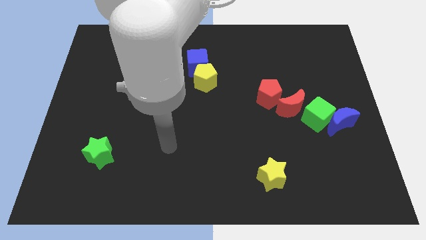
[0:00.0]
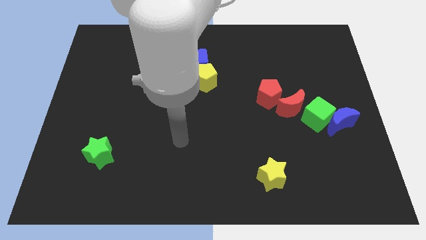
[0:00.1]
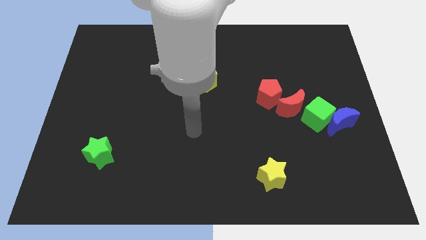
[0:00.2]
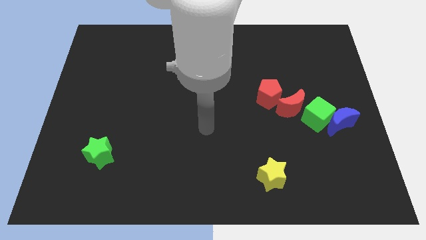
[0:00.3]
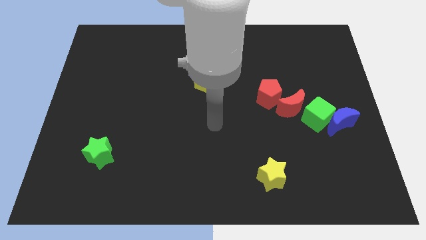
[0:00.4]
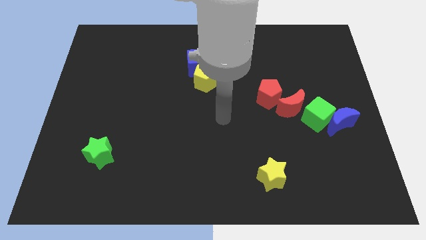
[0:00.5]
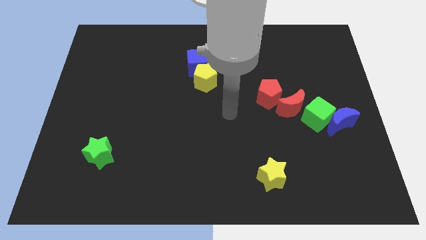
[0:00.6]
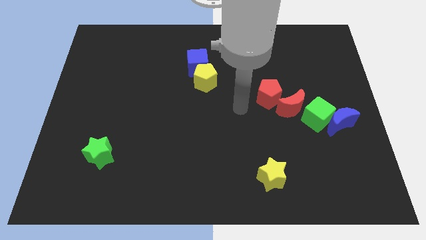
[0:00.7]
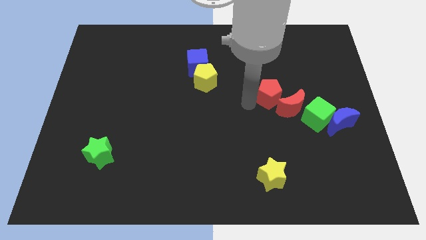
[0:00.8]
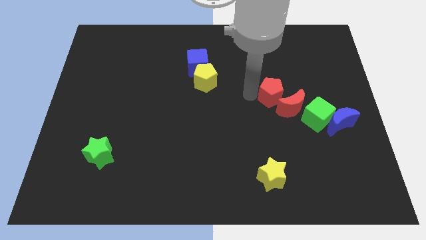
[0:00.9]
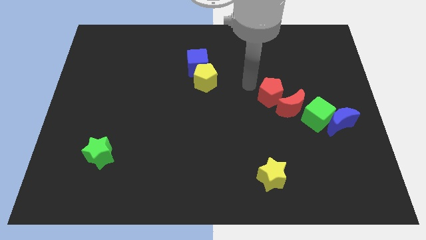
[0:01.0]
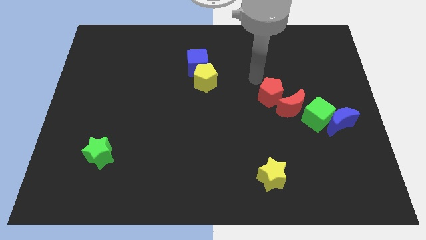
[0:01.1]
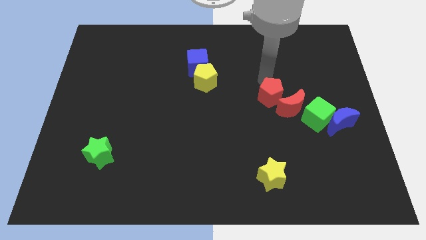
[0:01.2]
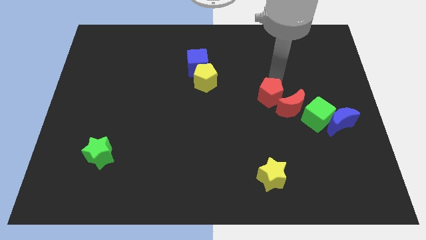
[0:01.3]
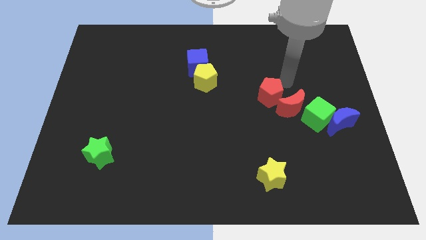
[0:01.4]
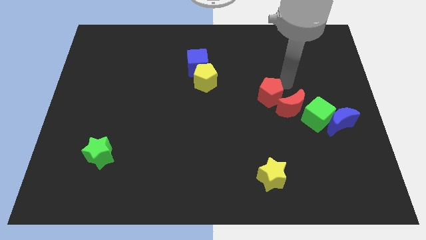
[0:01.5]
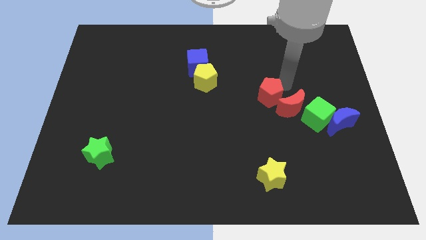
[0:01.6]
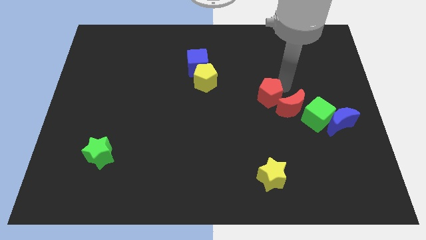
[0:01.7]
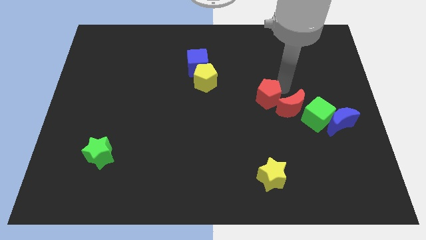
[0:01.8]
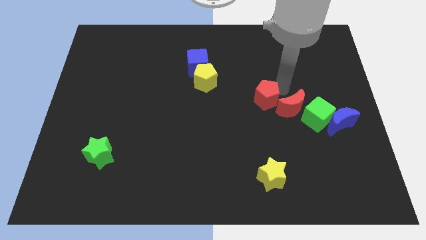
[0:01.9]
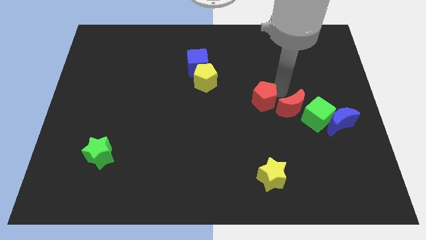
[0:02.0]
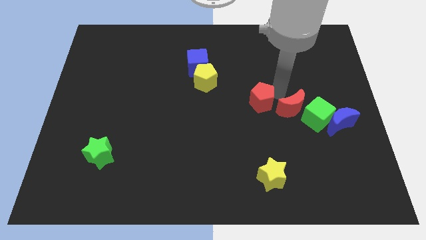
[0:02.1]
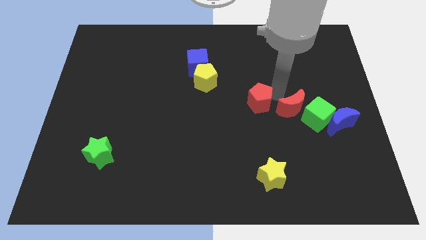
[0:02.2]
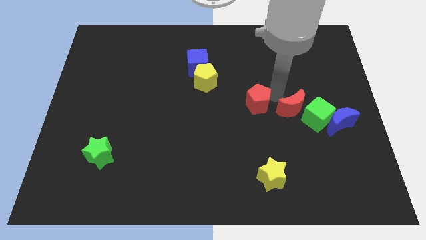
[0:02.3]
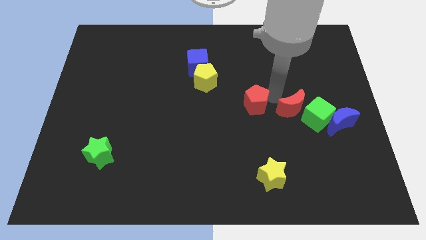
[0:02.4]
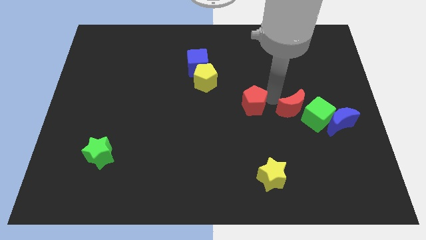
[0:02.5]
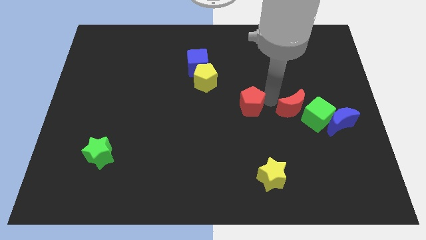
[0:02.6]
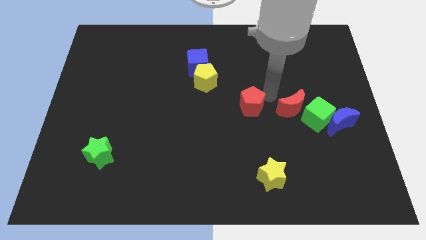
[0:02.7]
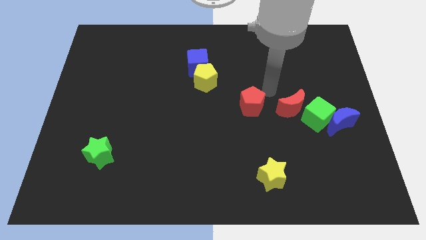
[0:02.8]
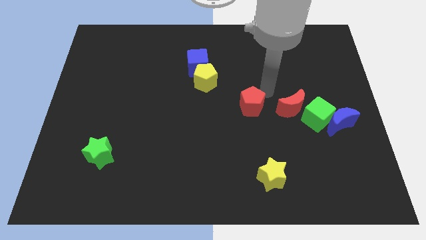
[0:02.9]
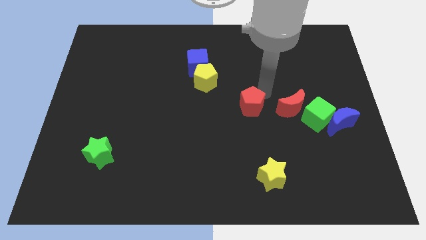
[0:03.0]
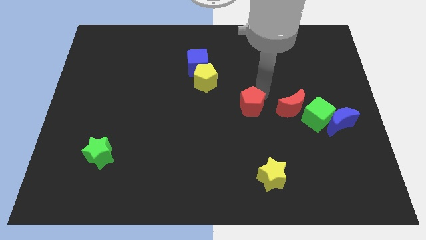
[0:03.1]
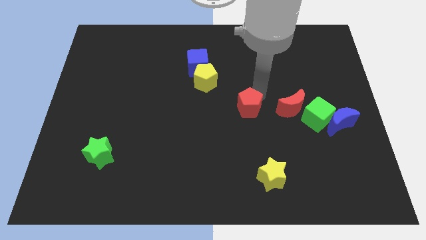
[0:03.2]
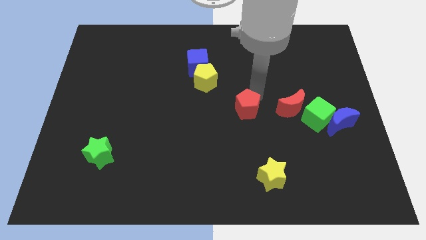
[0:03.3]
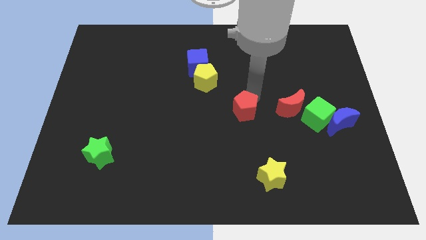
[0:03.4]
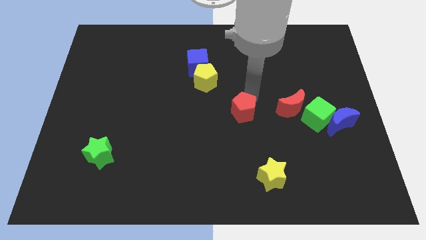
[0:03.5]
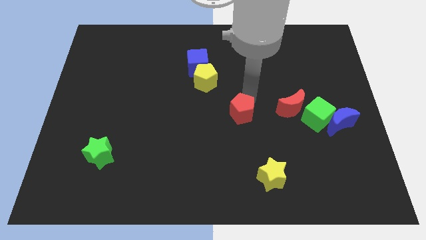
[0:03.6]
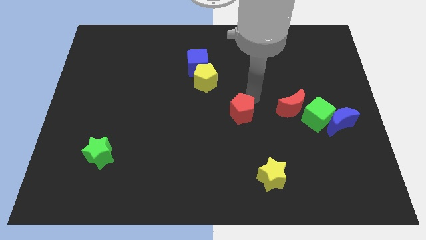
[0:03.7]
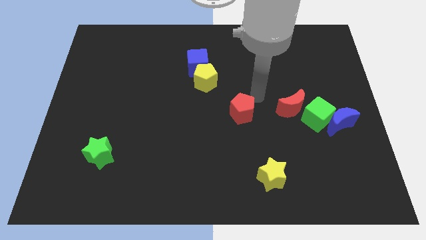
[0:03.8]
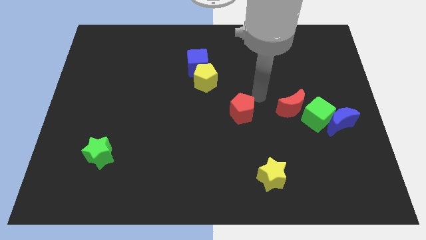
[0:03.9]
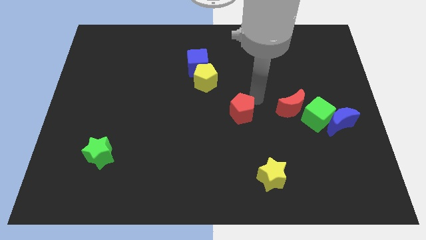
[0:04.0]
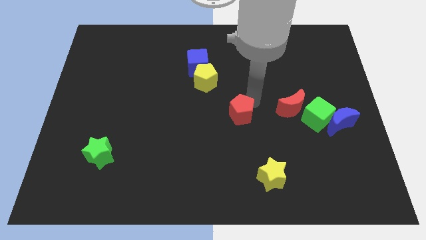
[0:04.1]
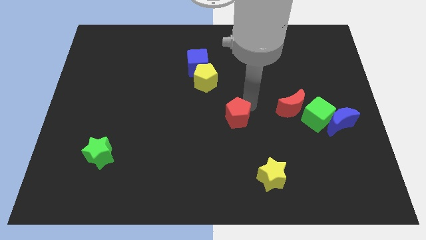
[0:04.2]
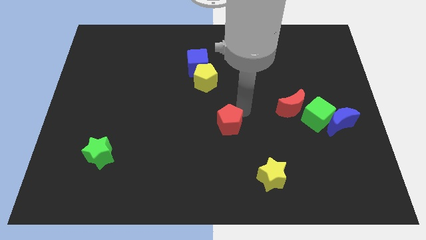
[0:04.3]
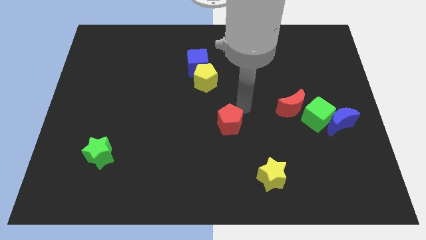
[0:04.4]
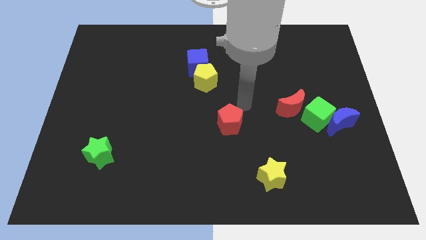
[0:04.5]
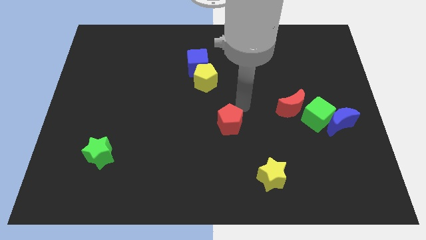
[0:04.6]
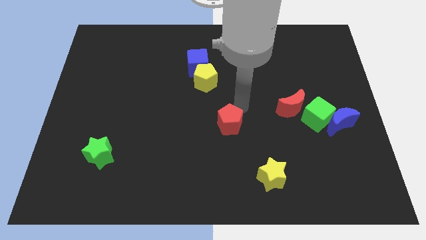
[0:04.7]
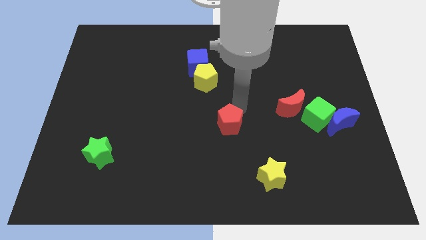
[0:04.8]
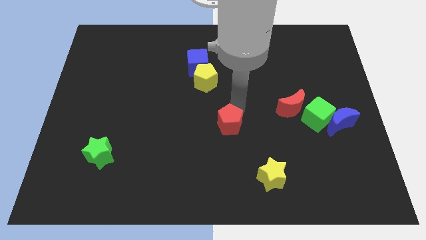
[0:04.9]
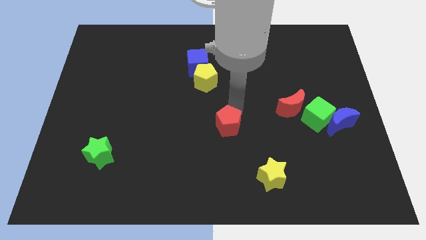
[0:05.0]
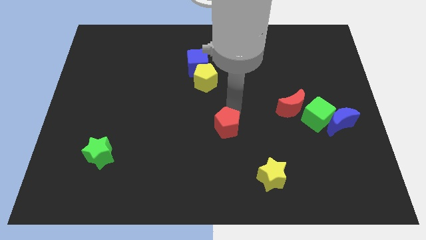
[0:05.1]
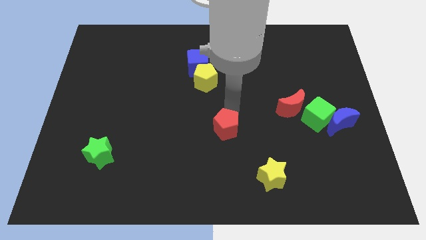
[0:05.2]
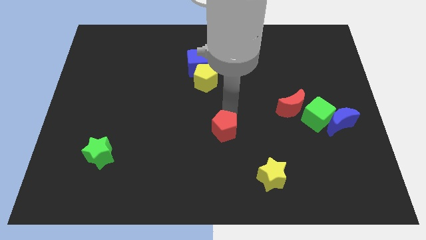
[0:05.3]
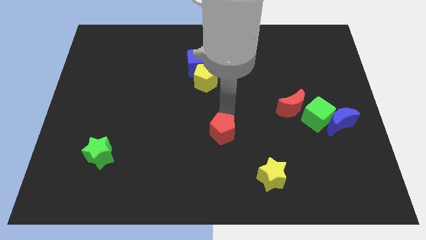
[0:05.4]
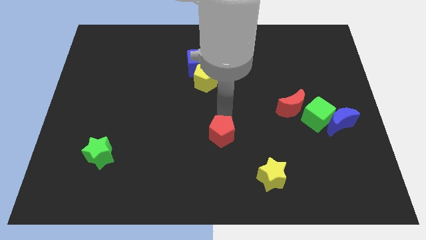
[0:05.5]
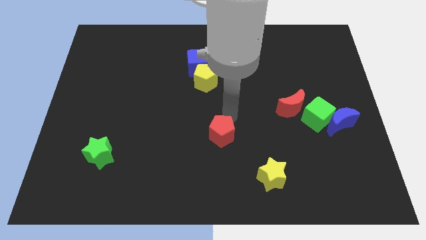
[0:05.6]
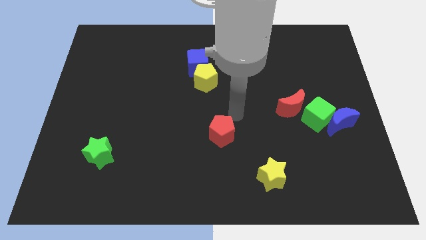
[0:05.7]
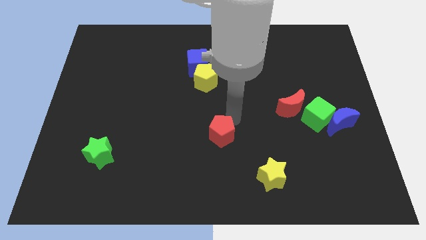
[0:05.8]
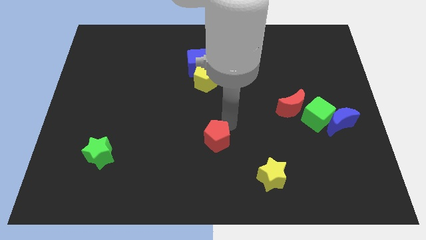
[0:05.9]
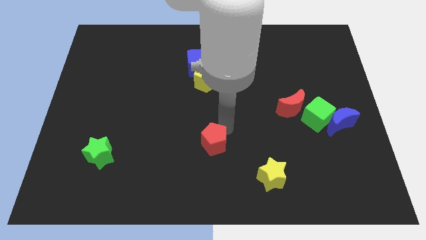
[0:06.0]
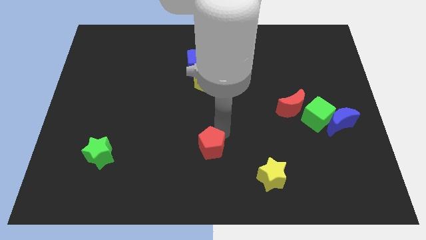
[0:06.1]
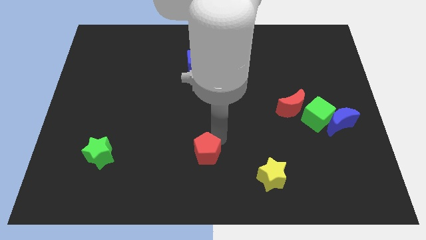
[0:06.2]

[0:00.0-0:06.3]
push the red pentagon diagonally downwards and to the left

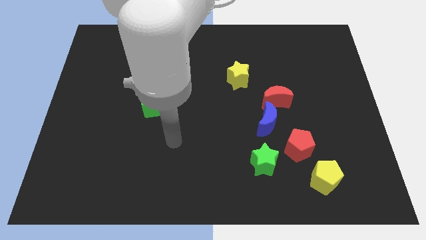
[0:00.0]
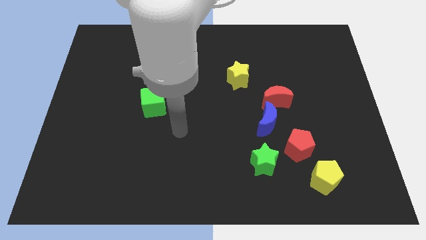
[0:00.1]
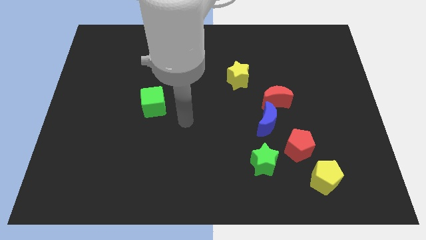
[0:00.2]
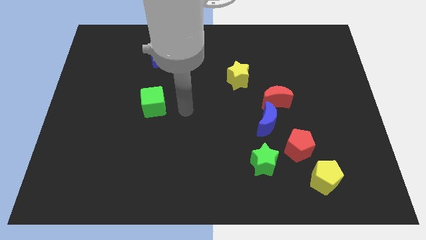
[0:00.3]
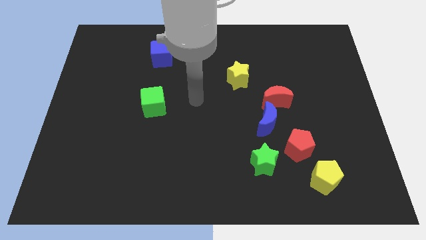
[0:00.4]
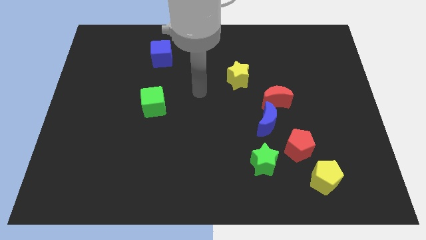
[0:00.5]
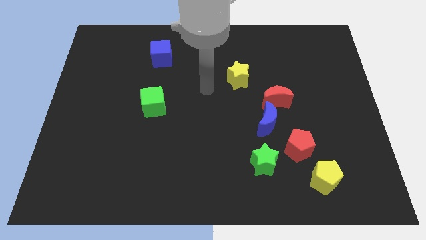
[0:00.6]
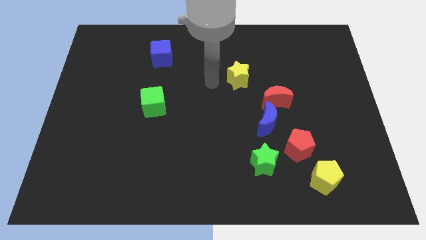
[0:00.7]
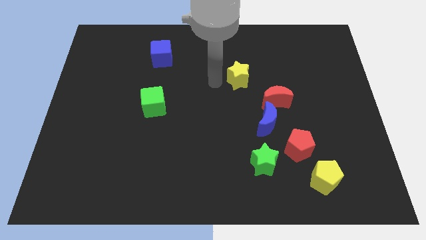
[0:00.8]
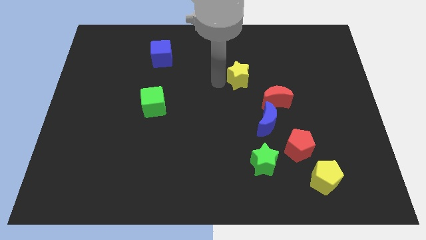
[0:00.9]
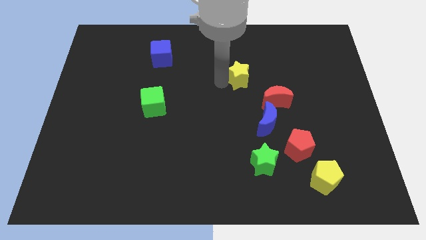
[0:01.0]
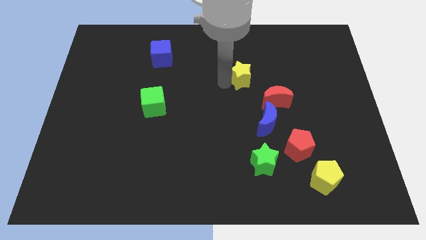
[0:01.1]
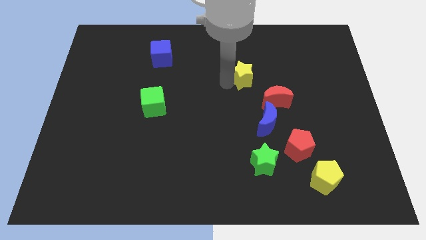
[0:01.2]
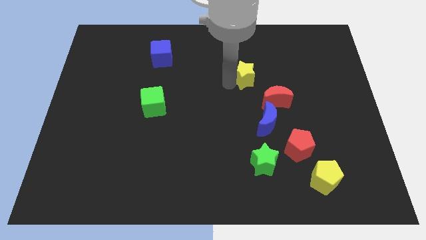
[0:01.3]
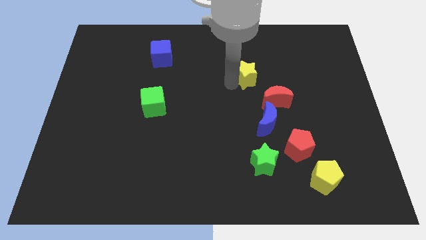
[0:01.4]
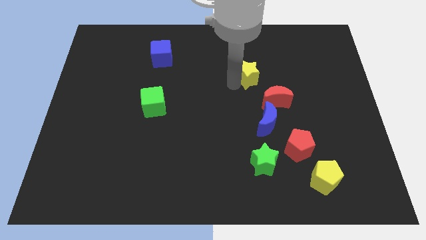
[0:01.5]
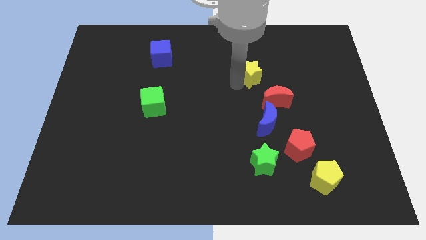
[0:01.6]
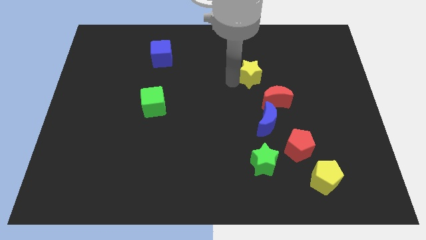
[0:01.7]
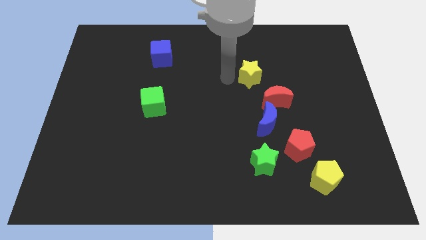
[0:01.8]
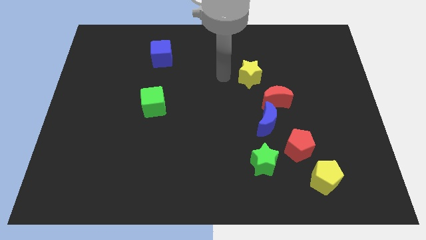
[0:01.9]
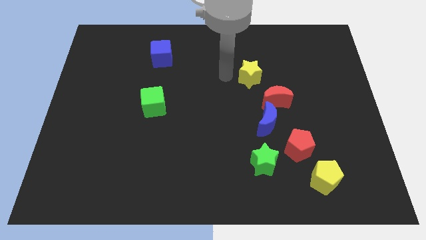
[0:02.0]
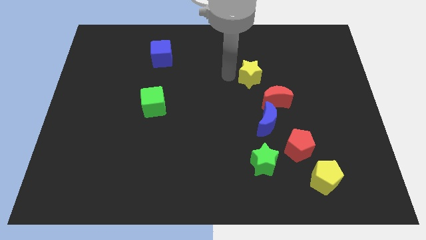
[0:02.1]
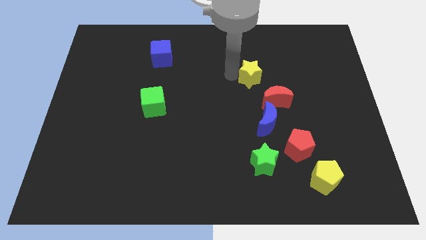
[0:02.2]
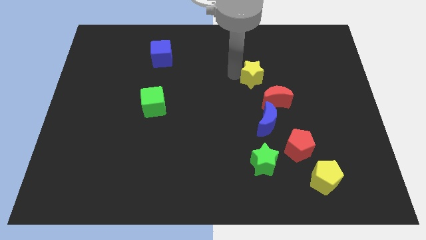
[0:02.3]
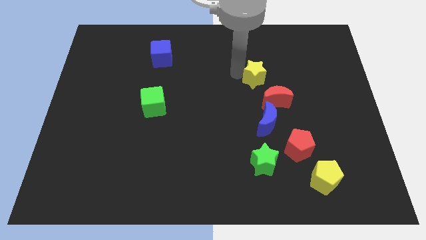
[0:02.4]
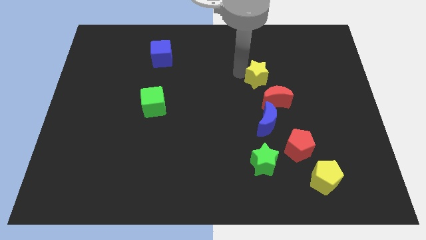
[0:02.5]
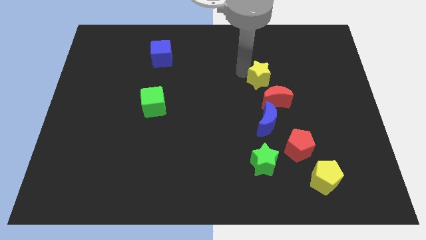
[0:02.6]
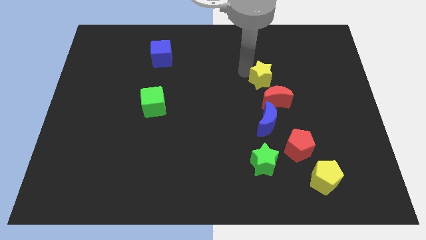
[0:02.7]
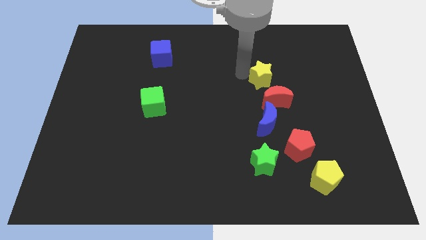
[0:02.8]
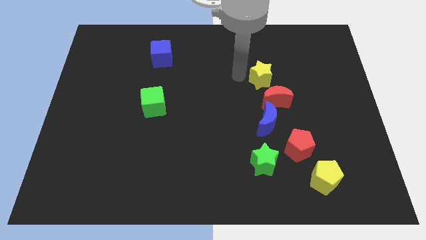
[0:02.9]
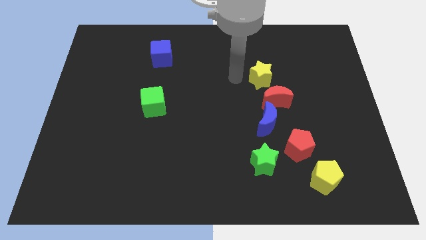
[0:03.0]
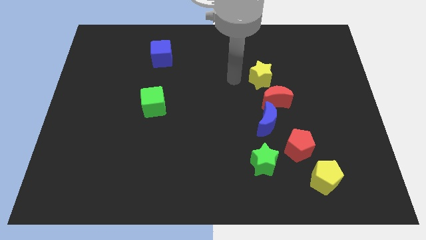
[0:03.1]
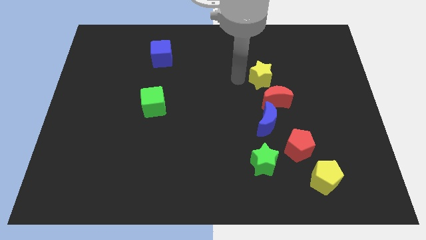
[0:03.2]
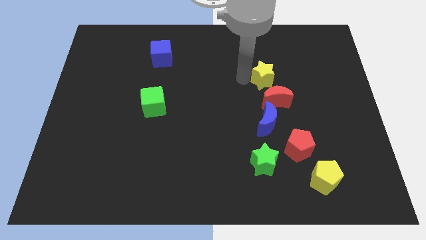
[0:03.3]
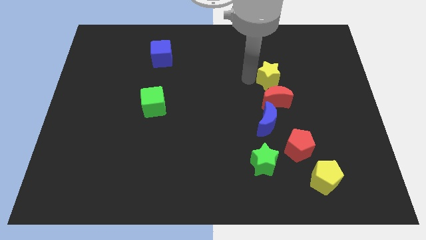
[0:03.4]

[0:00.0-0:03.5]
move the yellow star right slightly
